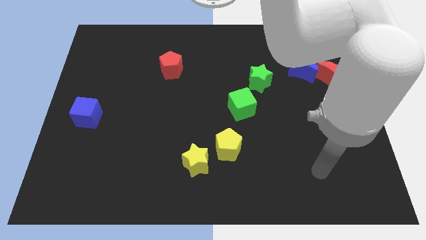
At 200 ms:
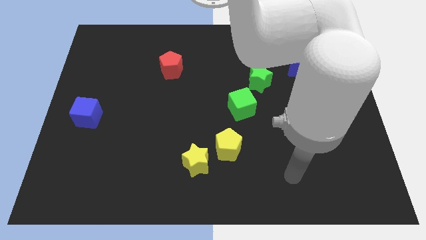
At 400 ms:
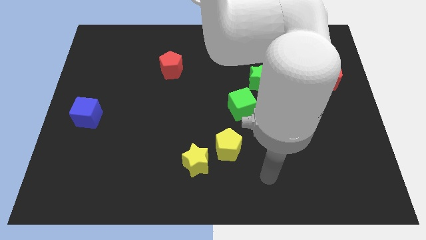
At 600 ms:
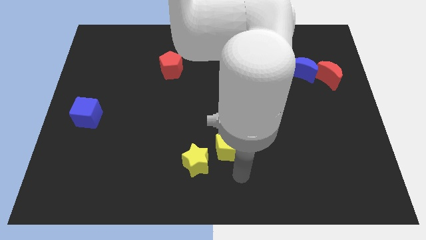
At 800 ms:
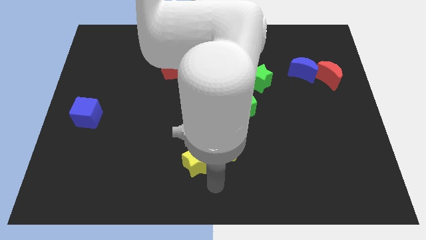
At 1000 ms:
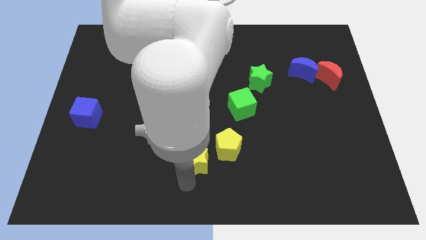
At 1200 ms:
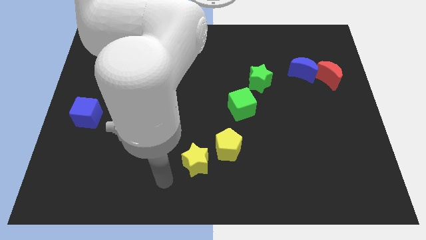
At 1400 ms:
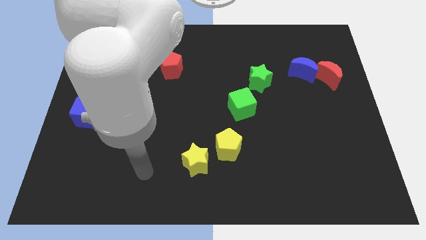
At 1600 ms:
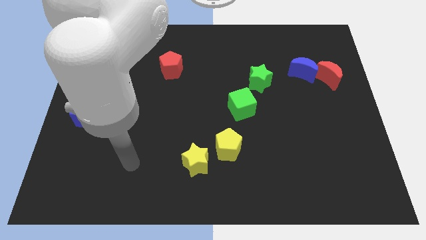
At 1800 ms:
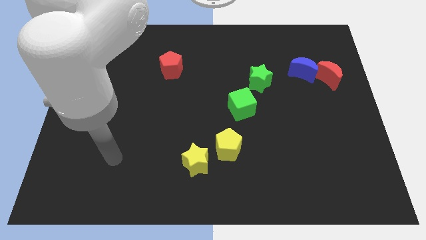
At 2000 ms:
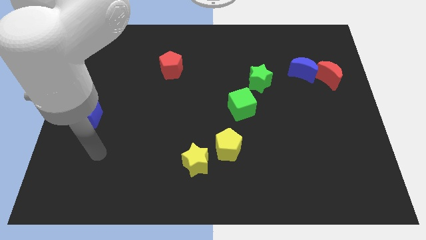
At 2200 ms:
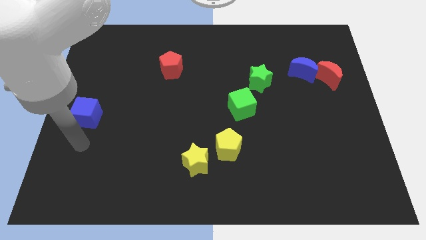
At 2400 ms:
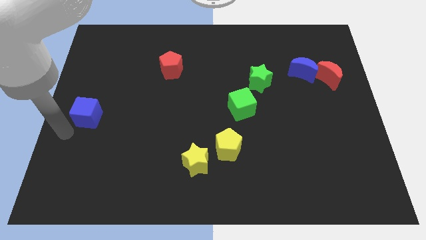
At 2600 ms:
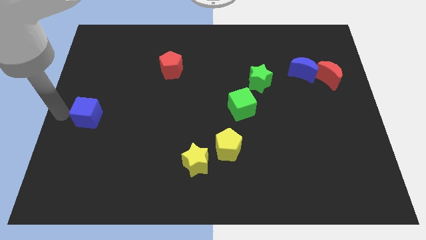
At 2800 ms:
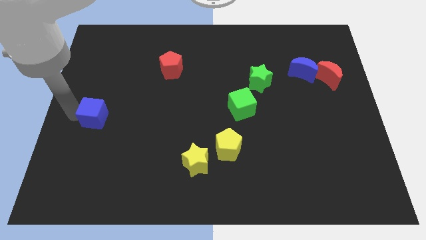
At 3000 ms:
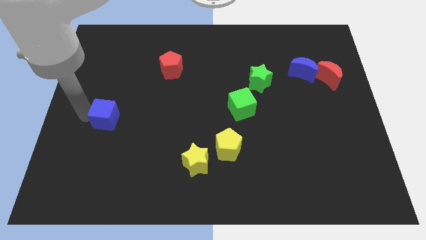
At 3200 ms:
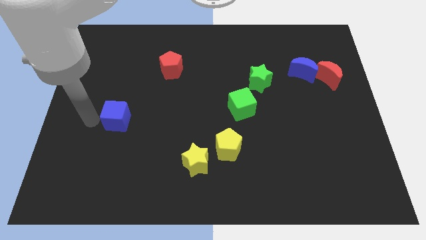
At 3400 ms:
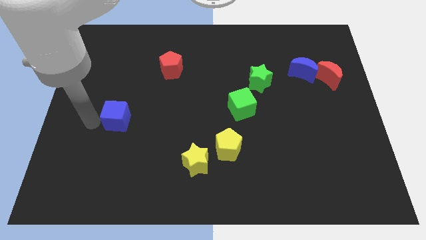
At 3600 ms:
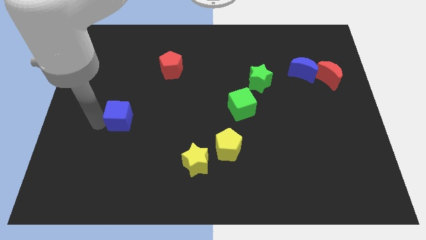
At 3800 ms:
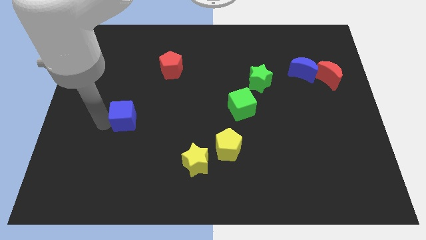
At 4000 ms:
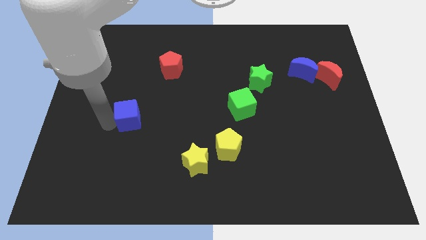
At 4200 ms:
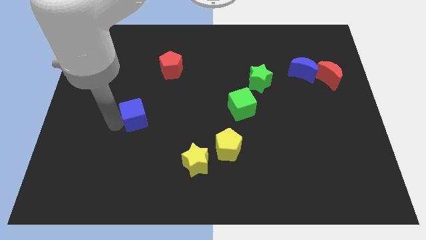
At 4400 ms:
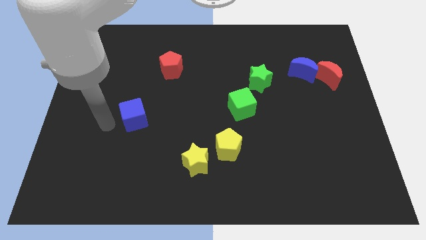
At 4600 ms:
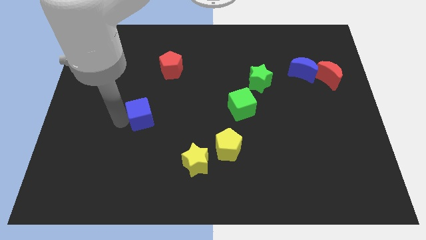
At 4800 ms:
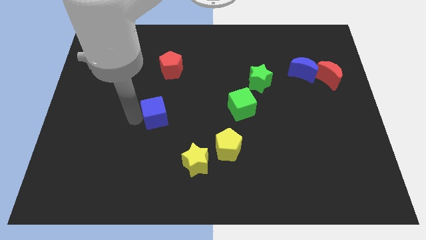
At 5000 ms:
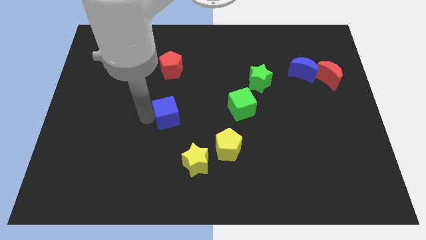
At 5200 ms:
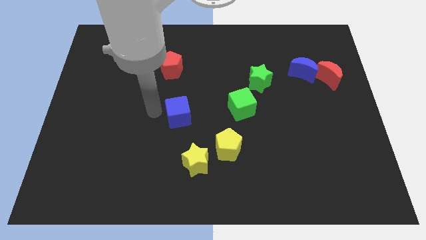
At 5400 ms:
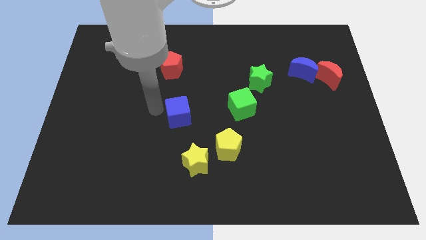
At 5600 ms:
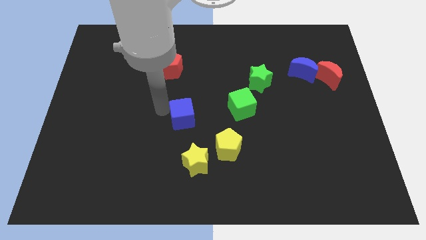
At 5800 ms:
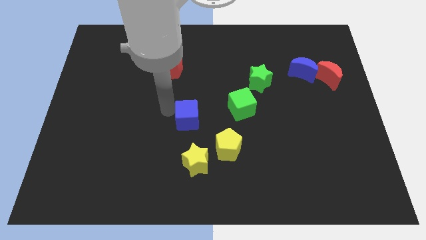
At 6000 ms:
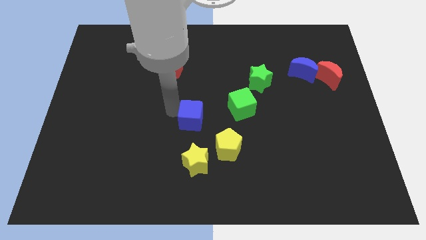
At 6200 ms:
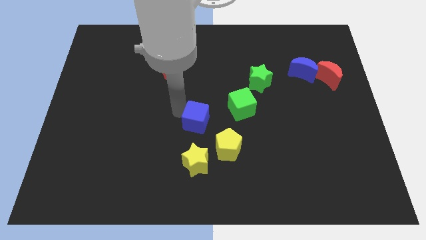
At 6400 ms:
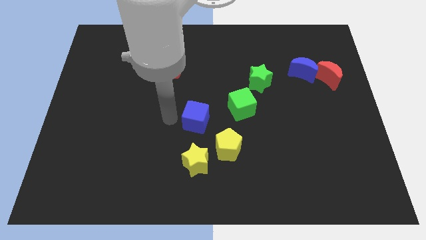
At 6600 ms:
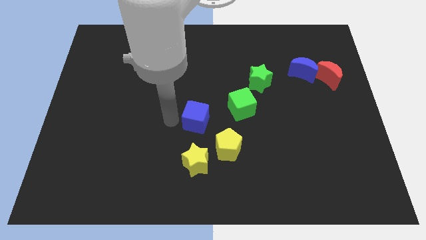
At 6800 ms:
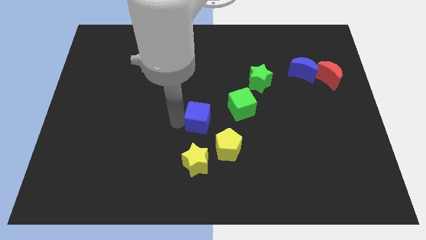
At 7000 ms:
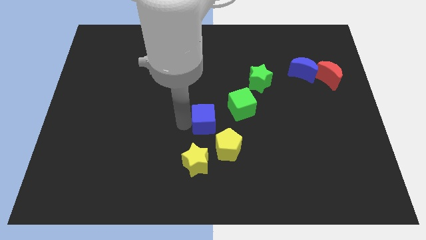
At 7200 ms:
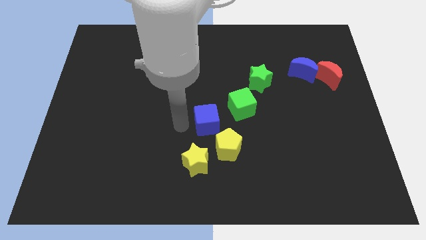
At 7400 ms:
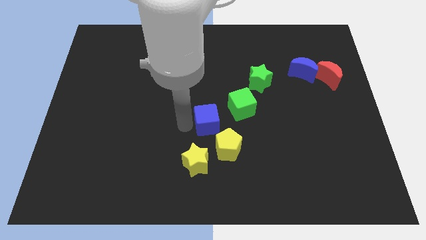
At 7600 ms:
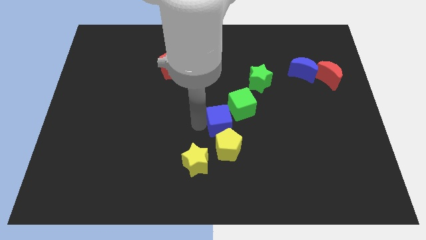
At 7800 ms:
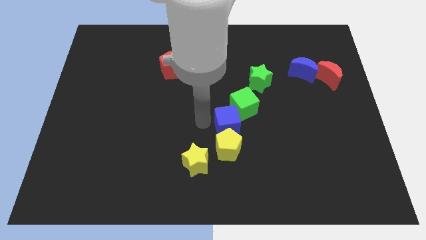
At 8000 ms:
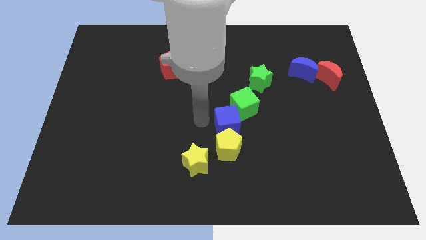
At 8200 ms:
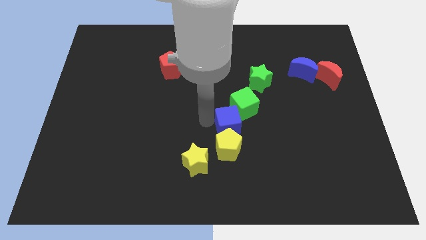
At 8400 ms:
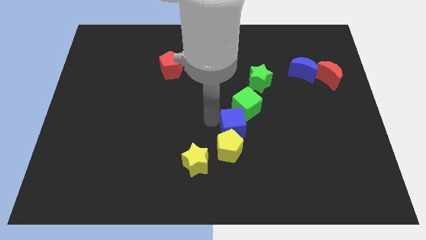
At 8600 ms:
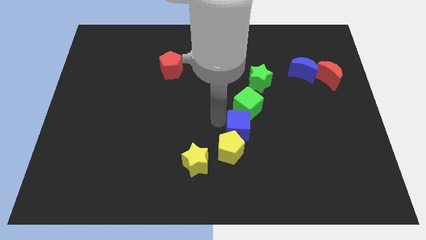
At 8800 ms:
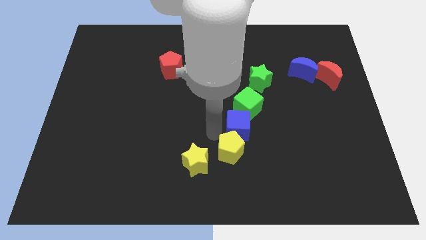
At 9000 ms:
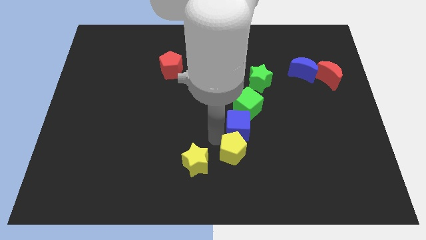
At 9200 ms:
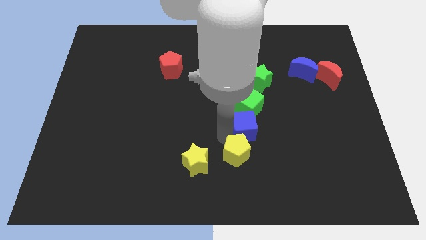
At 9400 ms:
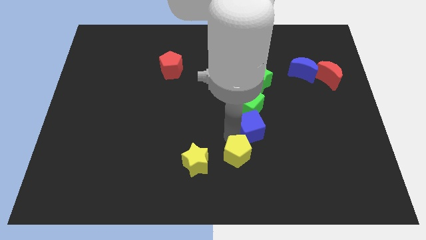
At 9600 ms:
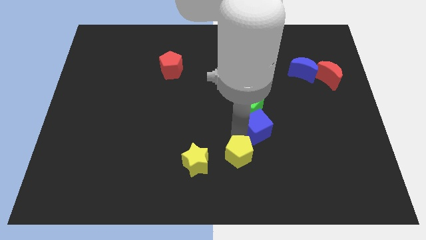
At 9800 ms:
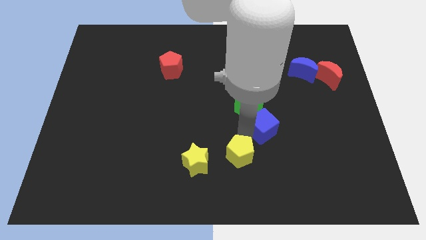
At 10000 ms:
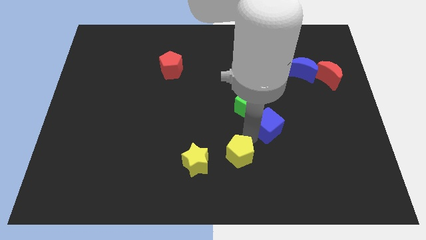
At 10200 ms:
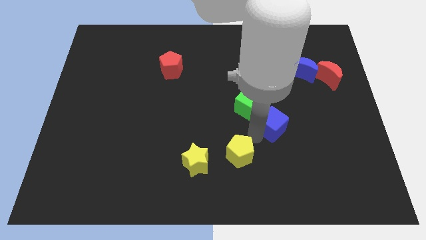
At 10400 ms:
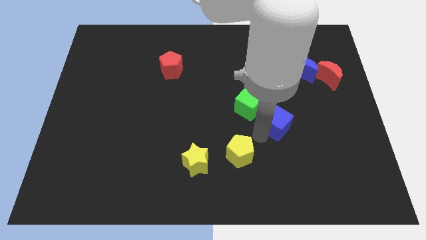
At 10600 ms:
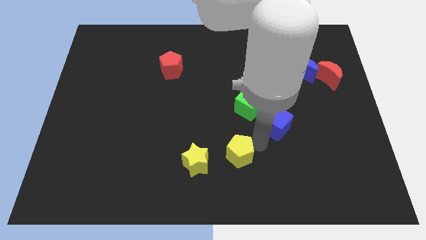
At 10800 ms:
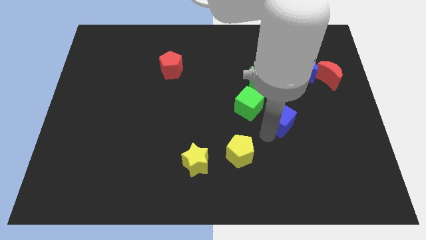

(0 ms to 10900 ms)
slide the blue cube right of the green cube

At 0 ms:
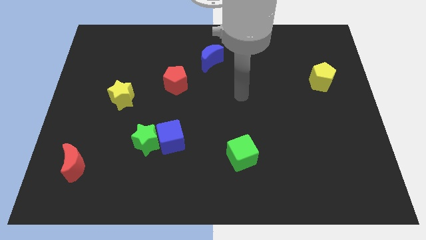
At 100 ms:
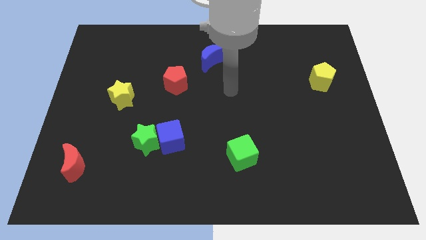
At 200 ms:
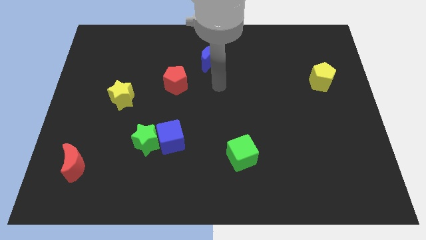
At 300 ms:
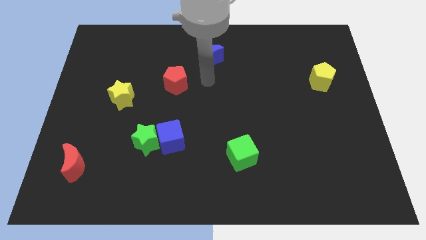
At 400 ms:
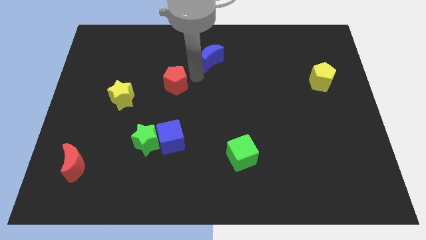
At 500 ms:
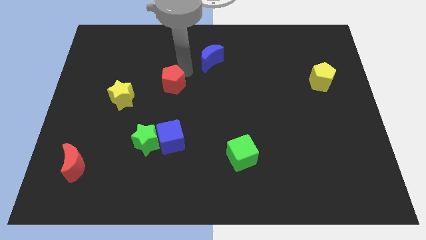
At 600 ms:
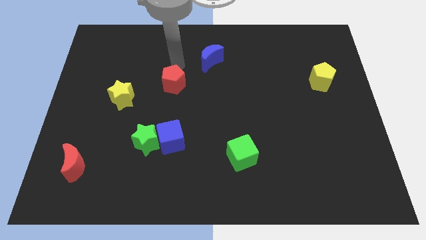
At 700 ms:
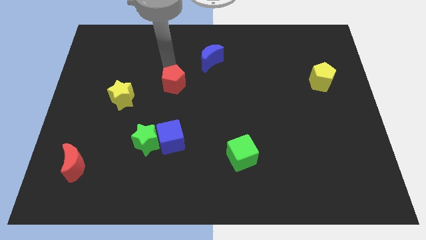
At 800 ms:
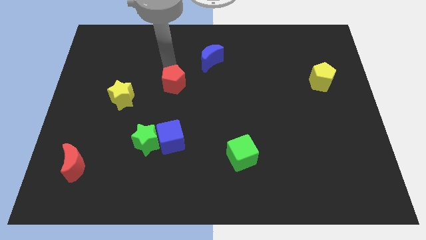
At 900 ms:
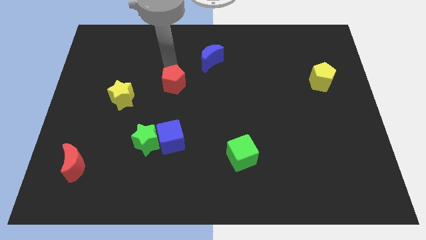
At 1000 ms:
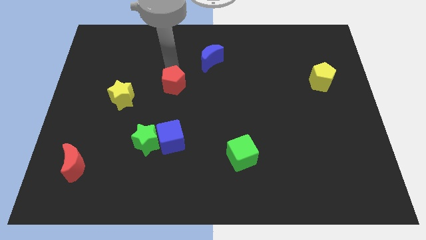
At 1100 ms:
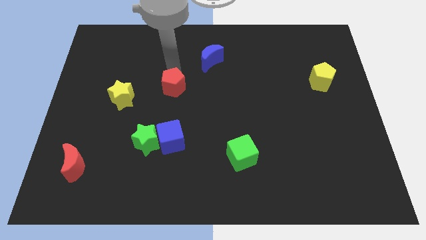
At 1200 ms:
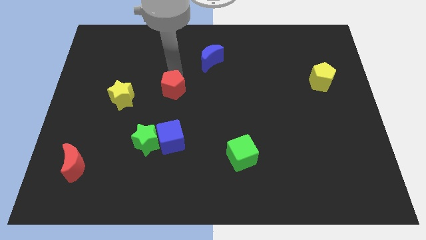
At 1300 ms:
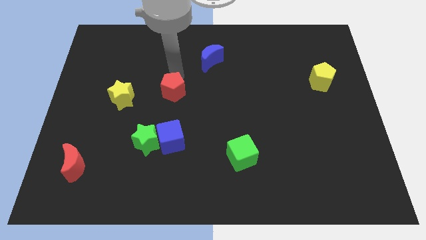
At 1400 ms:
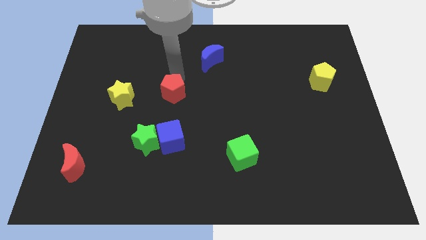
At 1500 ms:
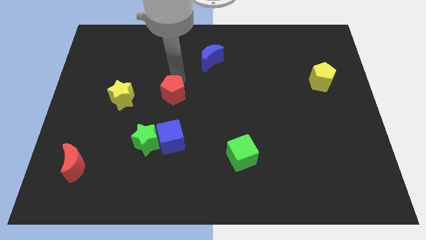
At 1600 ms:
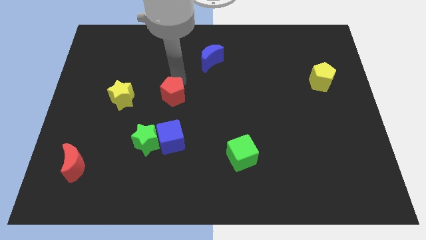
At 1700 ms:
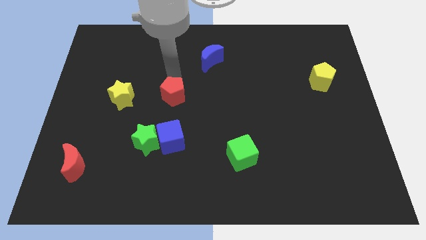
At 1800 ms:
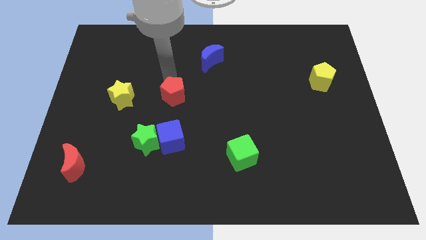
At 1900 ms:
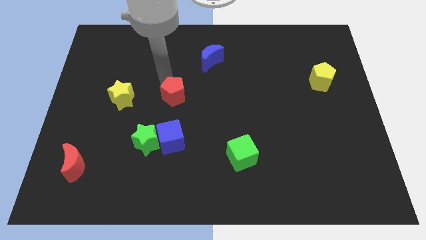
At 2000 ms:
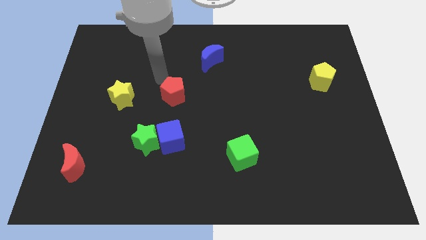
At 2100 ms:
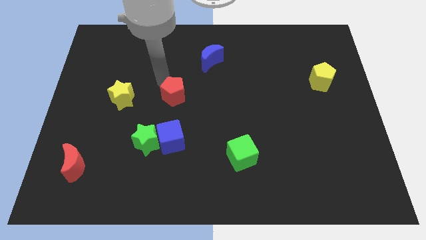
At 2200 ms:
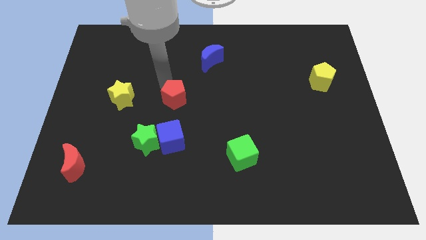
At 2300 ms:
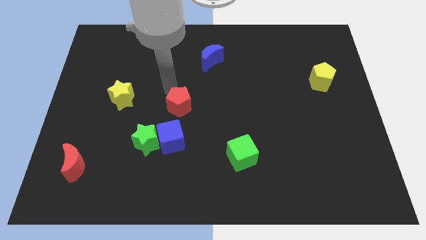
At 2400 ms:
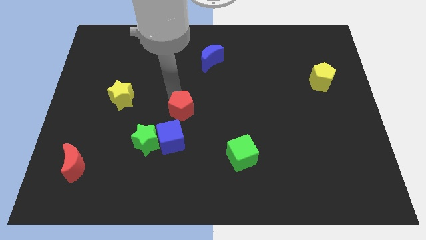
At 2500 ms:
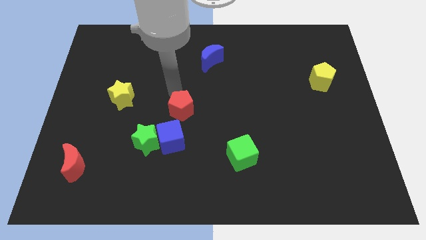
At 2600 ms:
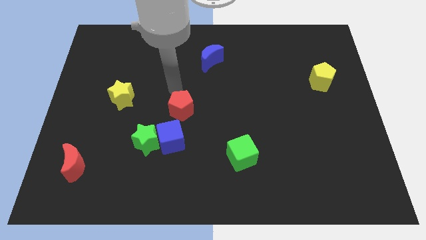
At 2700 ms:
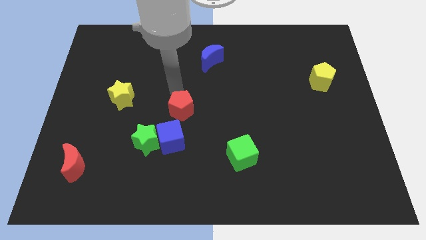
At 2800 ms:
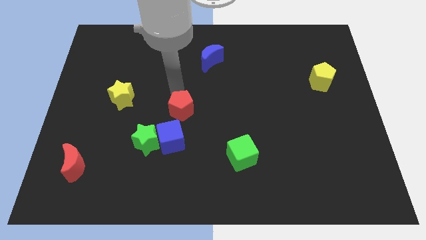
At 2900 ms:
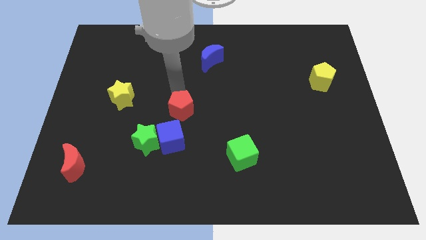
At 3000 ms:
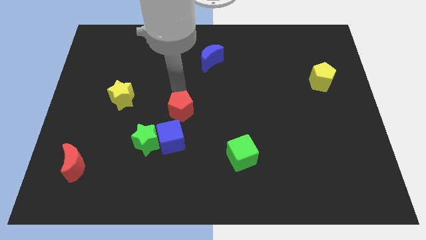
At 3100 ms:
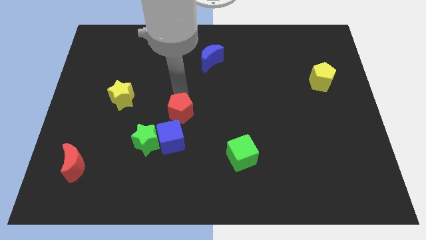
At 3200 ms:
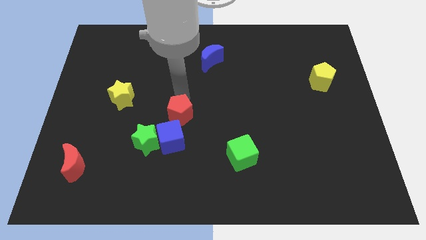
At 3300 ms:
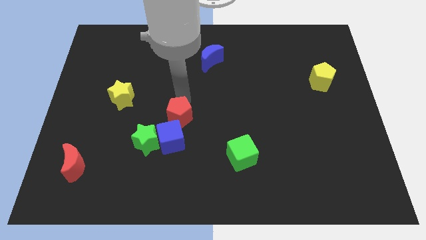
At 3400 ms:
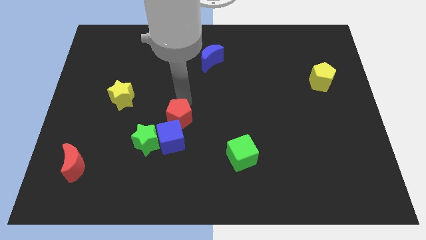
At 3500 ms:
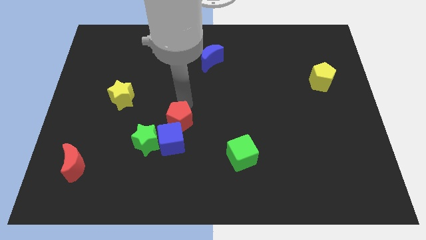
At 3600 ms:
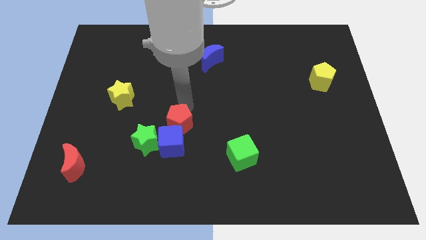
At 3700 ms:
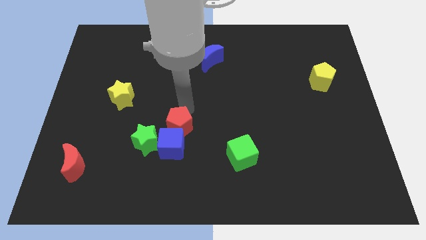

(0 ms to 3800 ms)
move the red pentagon just right of the green star
